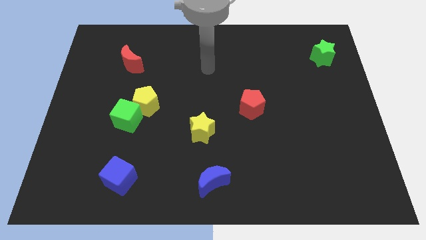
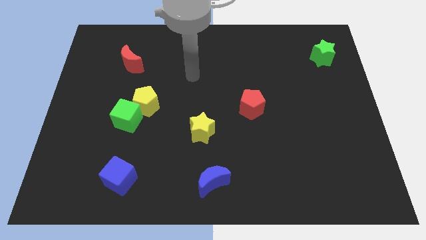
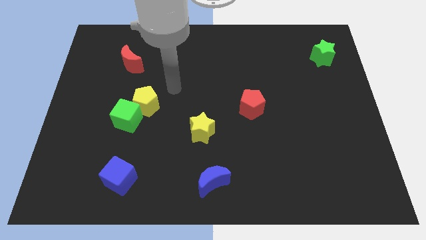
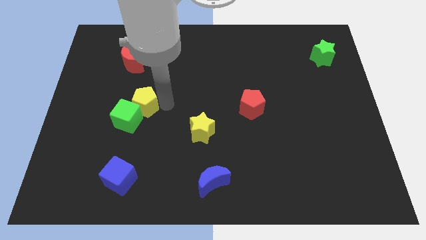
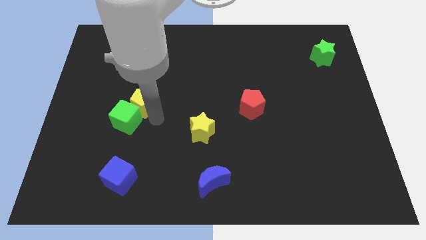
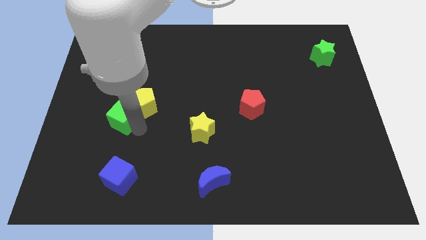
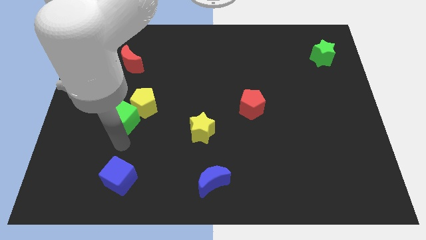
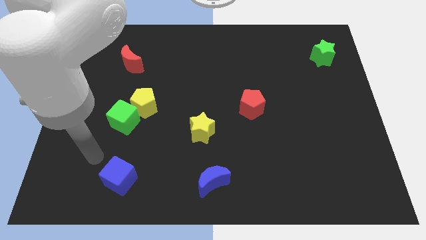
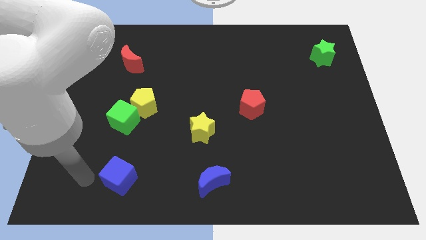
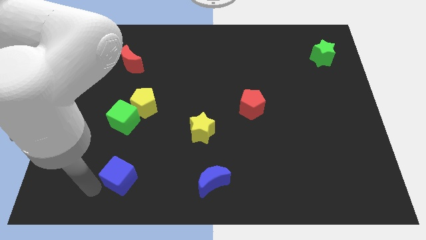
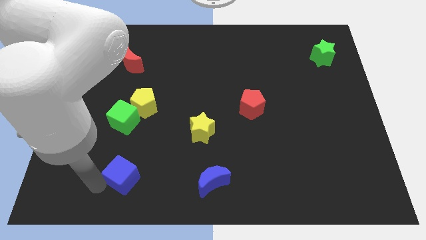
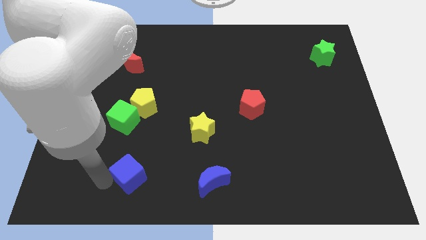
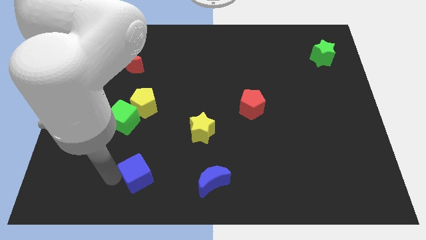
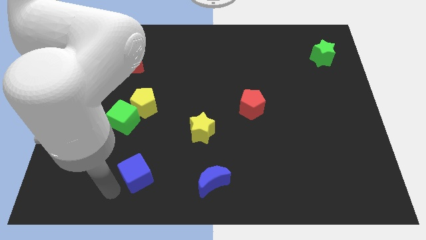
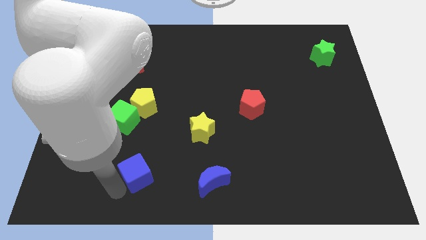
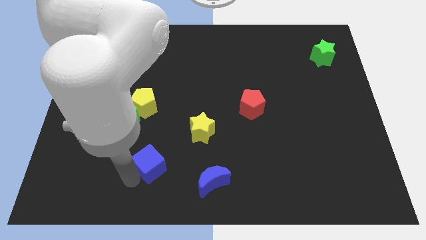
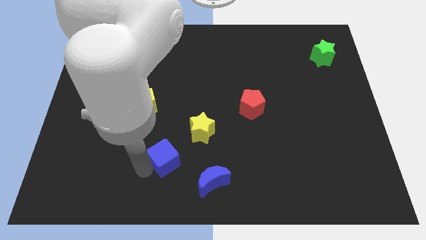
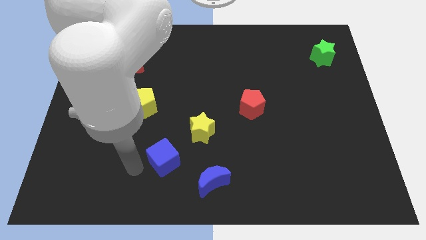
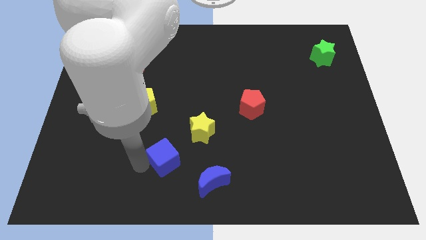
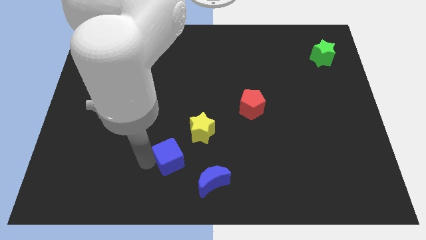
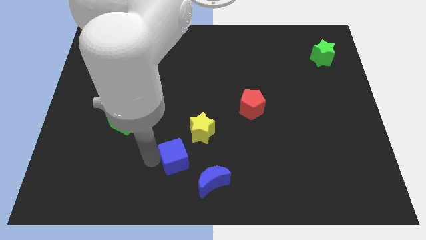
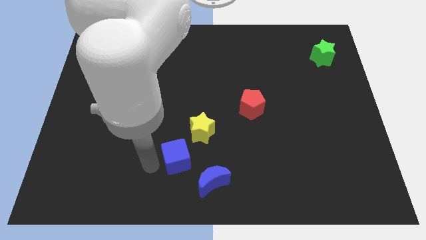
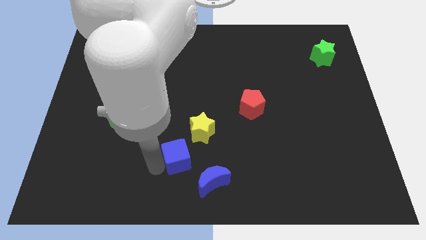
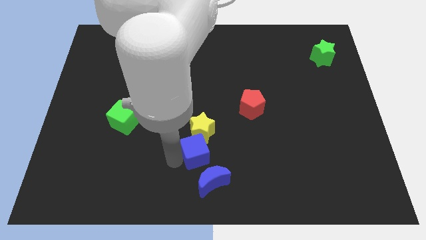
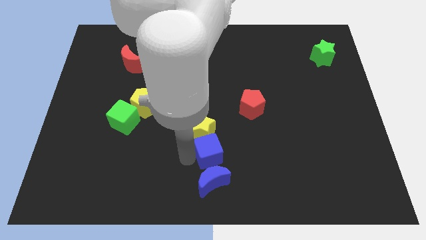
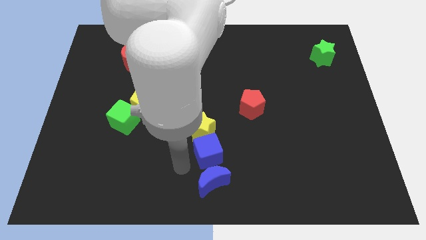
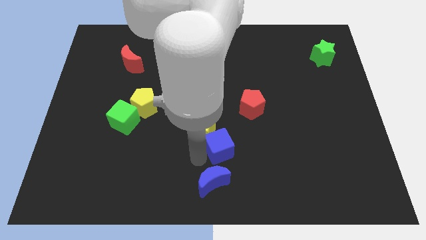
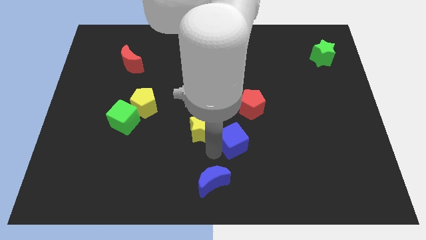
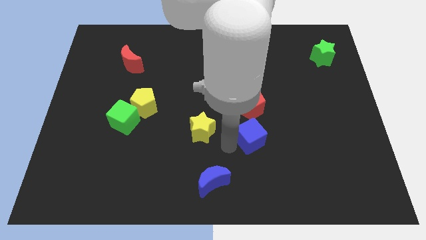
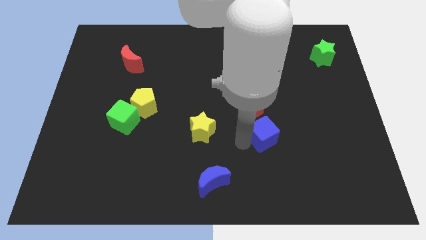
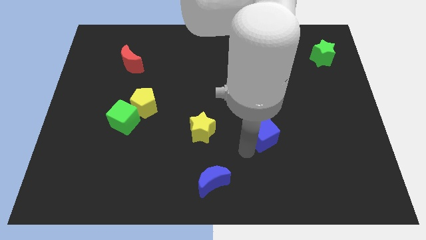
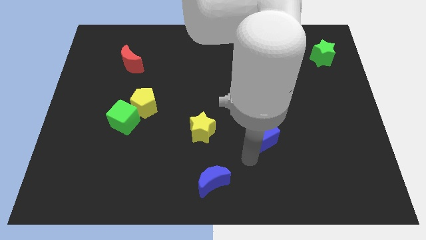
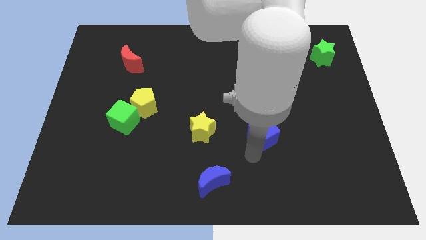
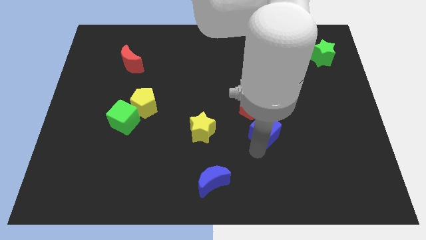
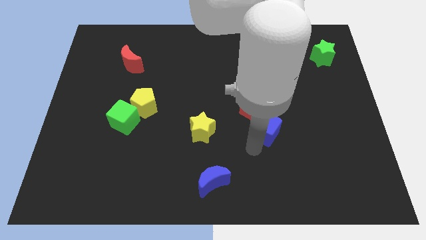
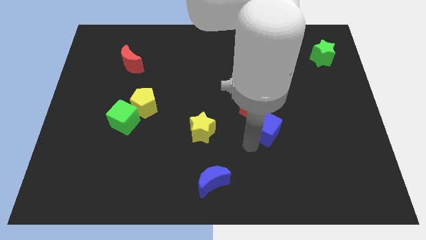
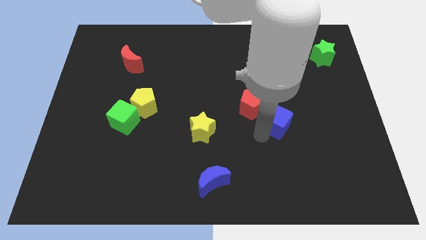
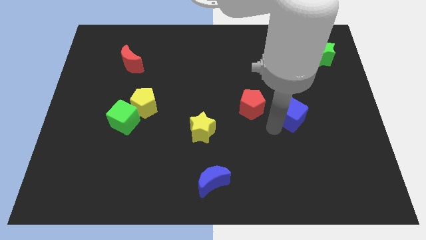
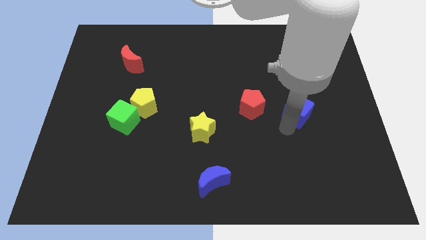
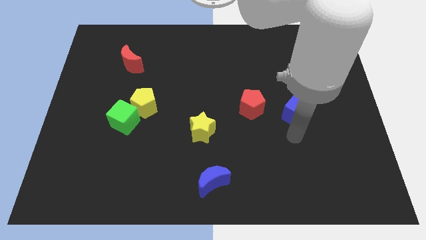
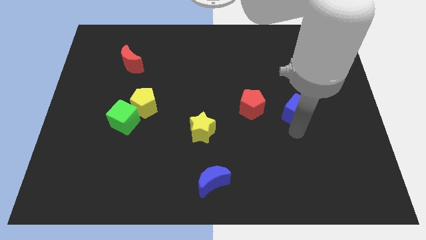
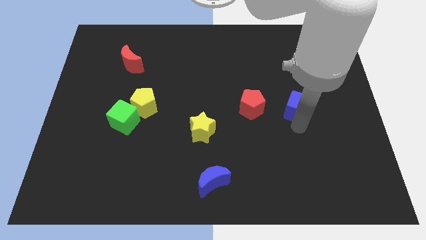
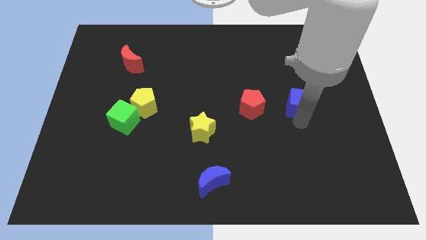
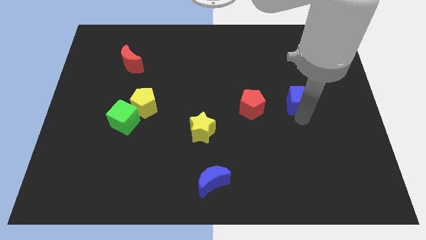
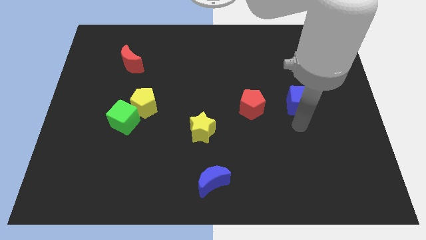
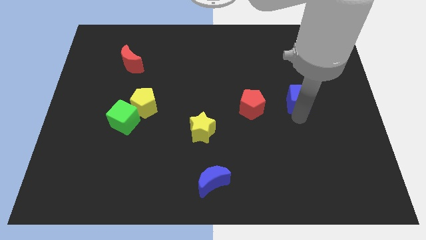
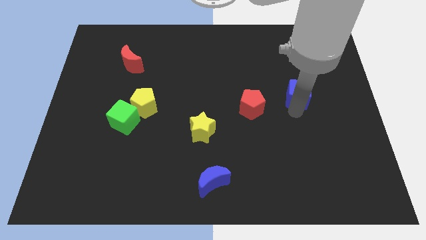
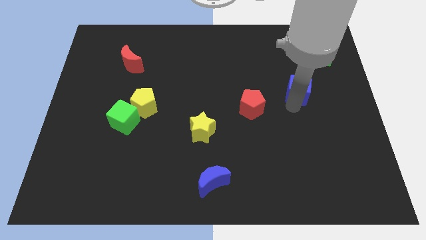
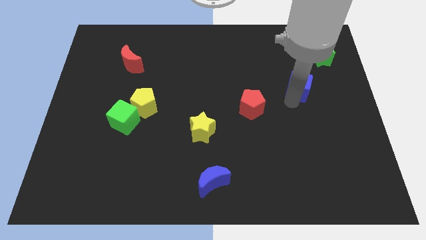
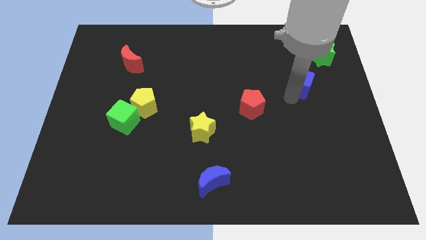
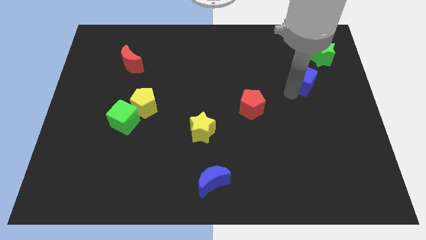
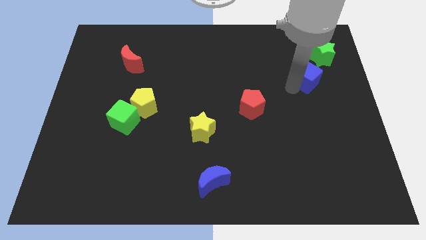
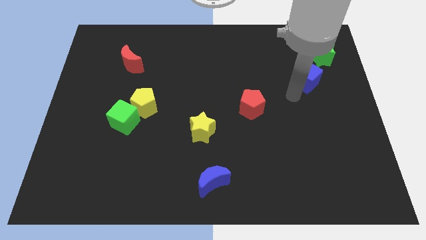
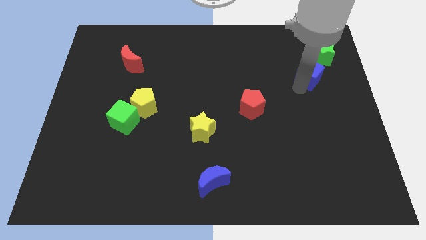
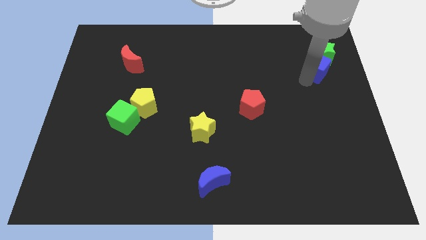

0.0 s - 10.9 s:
move the blue cube next to the green star

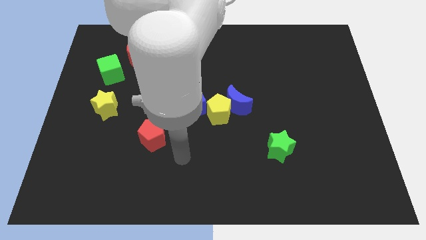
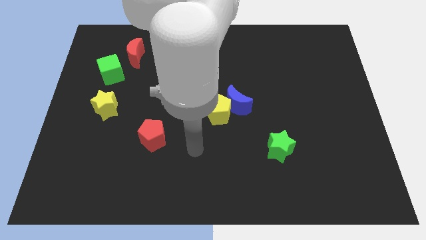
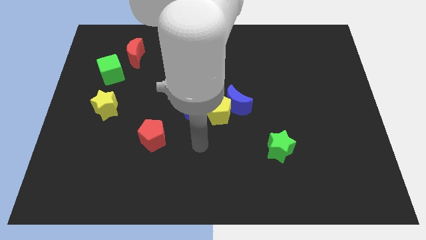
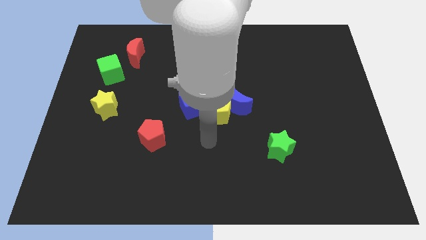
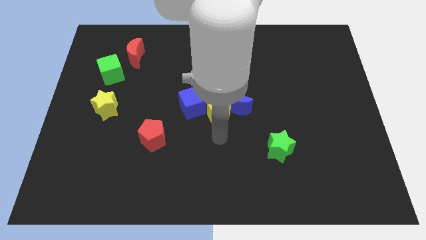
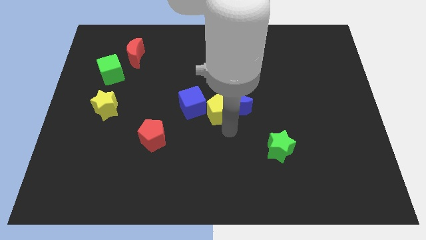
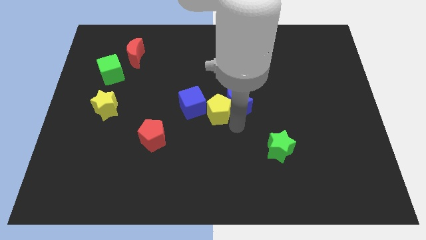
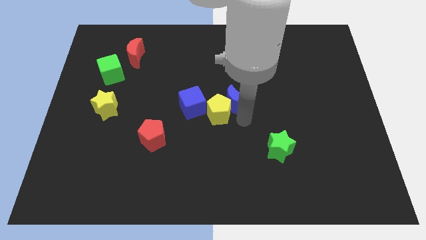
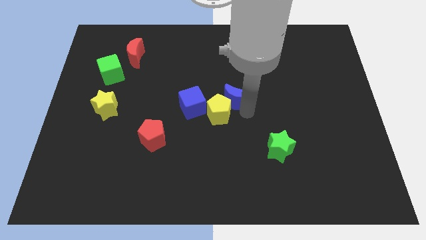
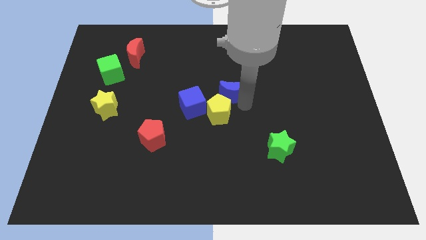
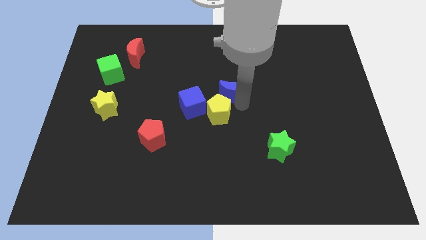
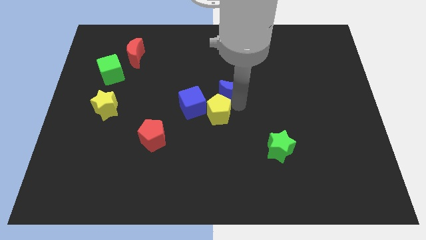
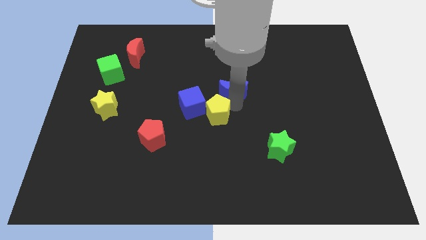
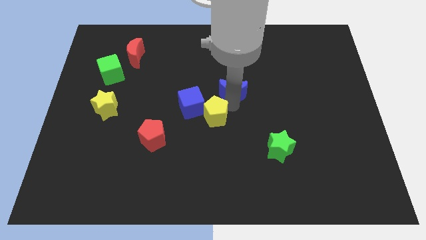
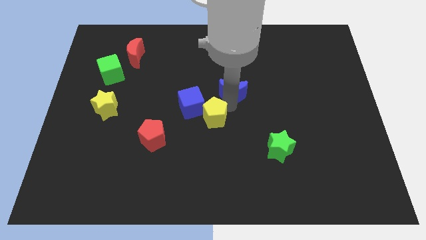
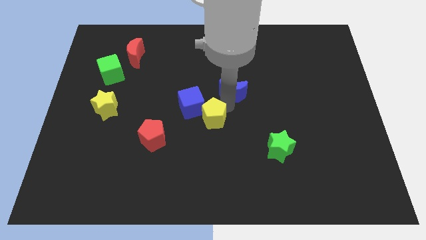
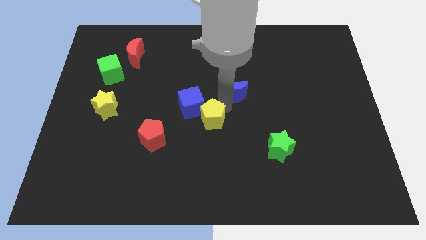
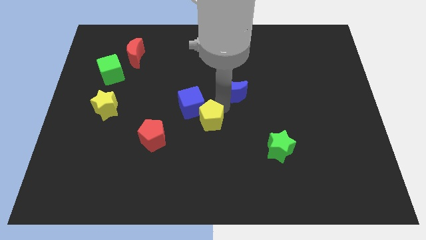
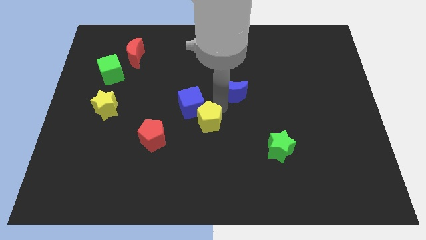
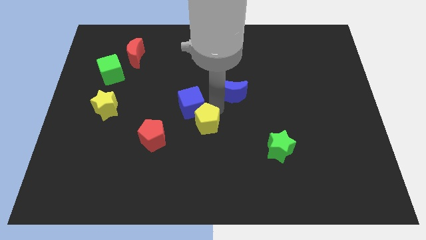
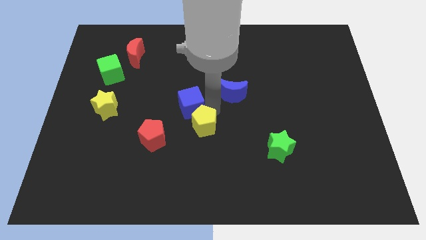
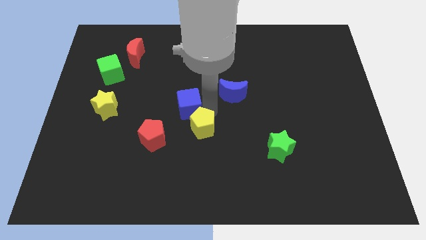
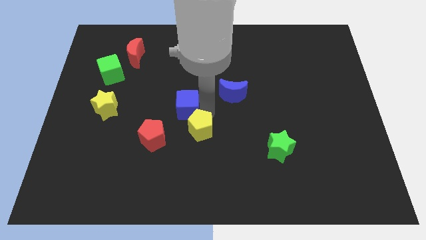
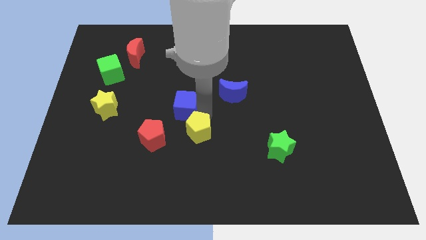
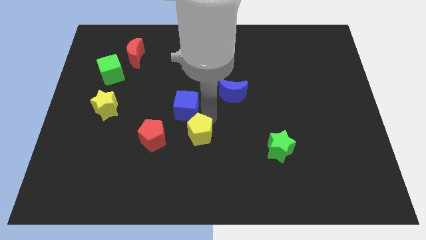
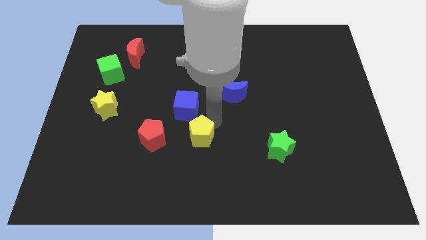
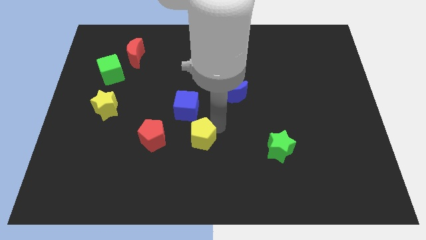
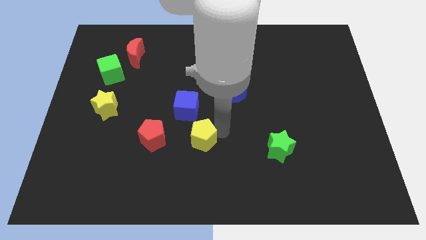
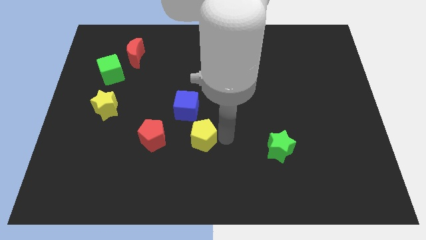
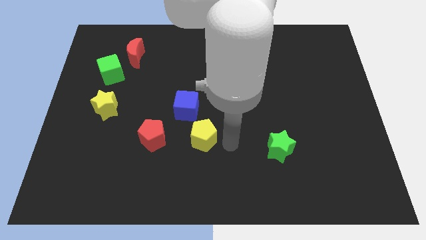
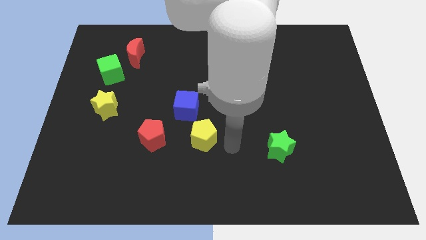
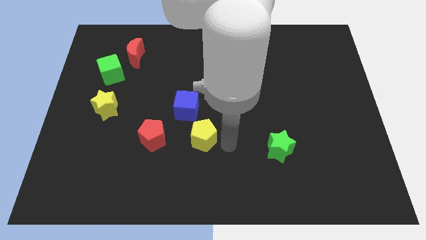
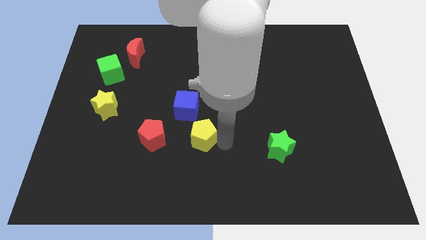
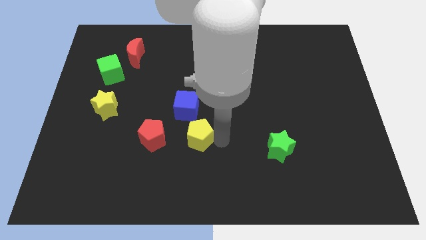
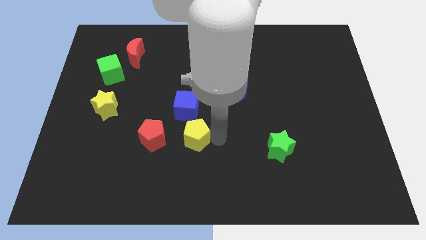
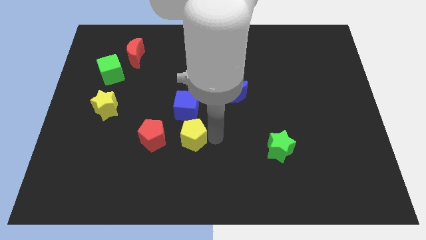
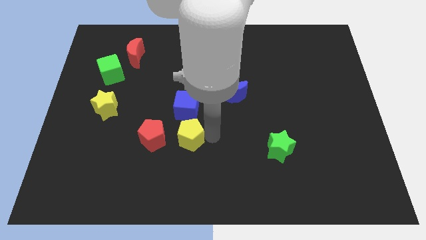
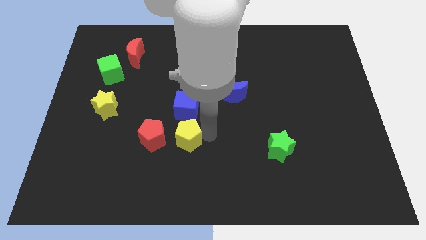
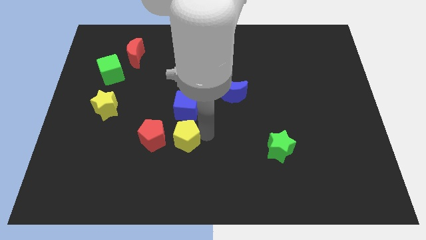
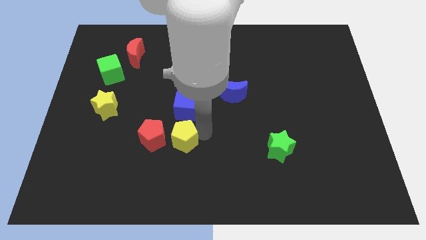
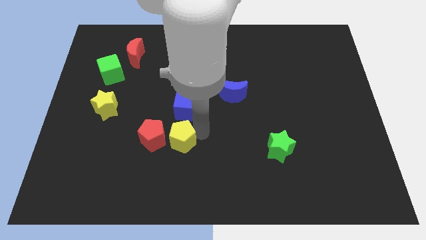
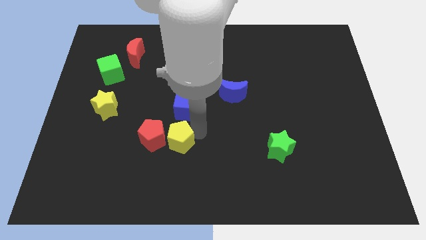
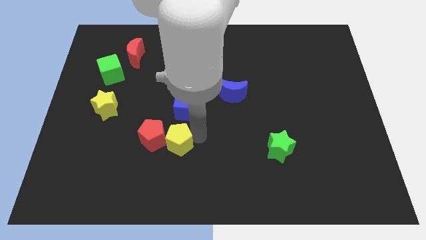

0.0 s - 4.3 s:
move the yellow pentagon close to the red pentagon
